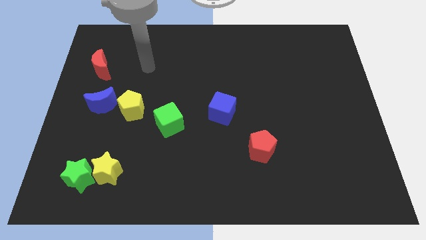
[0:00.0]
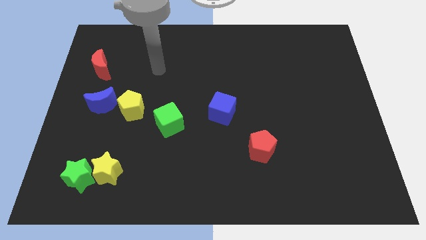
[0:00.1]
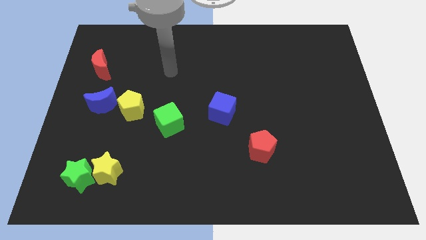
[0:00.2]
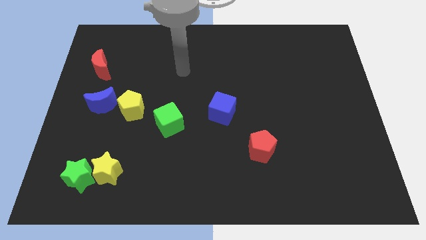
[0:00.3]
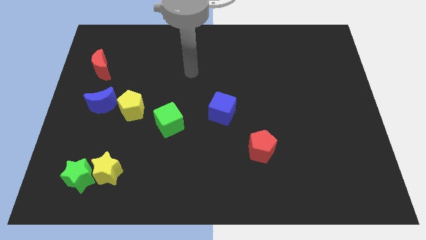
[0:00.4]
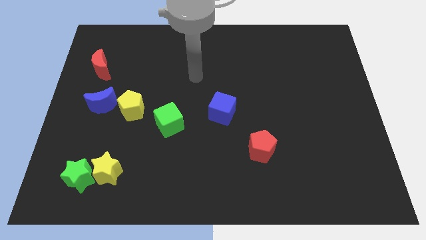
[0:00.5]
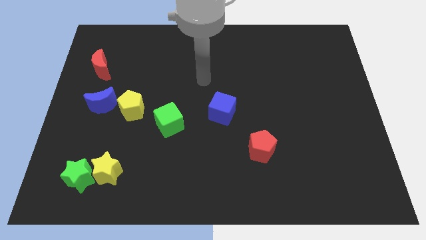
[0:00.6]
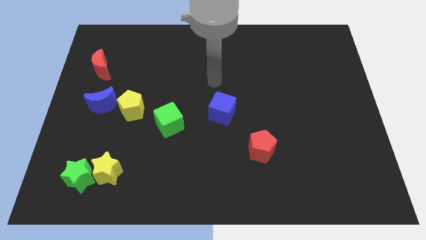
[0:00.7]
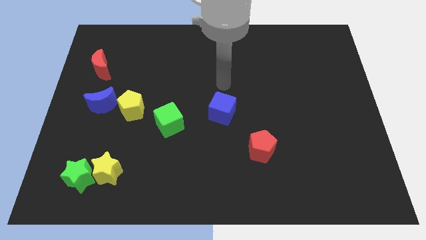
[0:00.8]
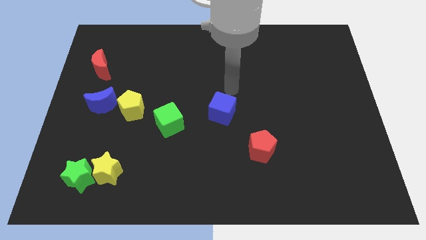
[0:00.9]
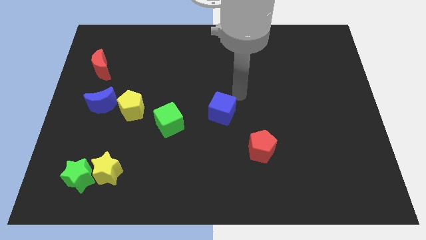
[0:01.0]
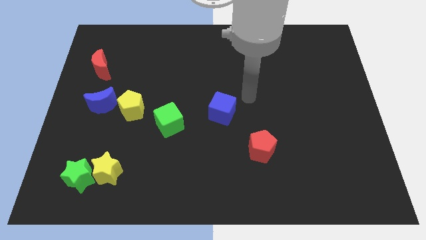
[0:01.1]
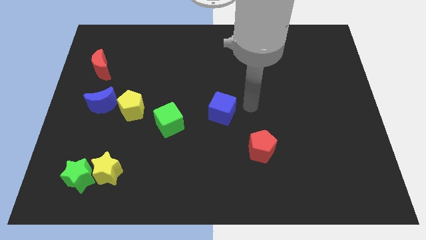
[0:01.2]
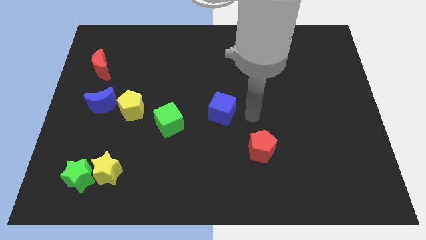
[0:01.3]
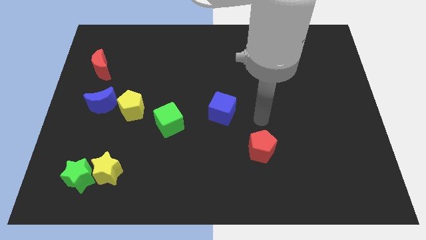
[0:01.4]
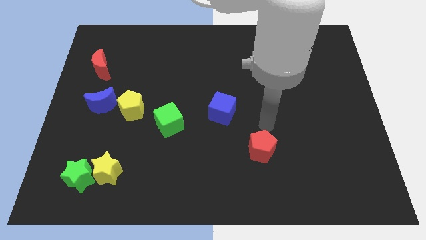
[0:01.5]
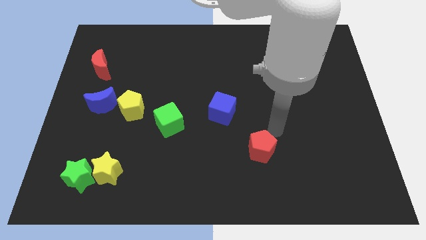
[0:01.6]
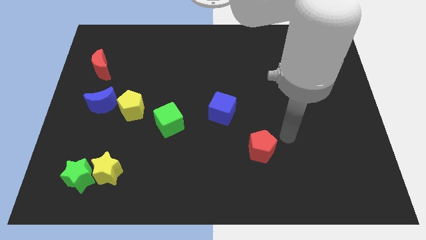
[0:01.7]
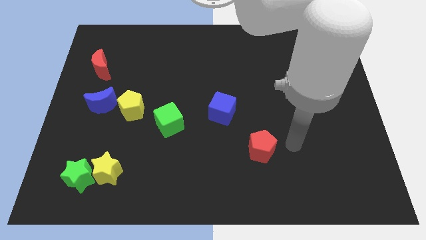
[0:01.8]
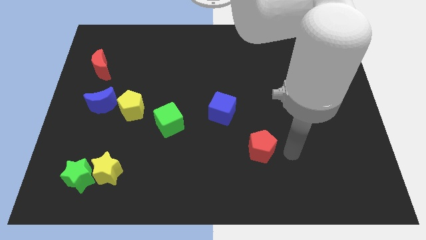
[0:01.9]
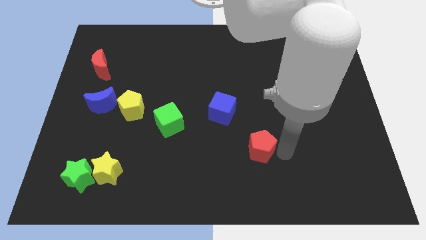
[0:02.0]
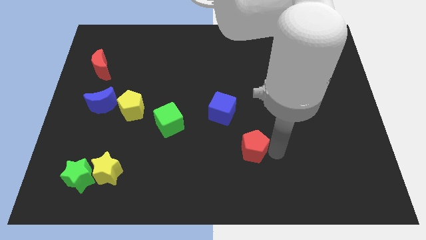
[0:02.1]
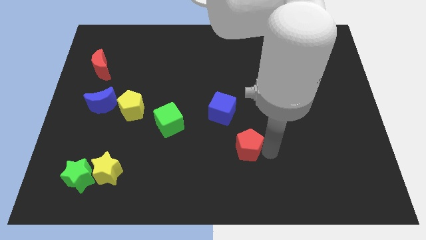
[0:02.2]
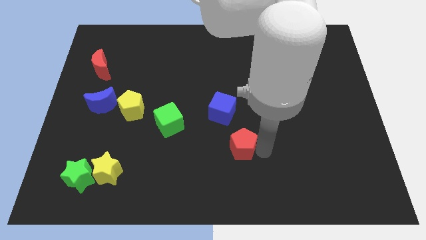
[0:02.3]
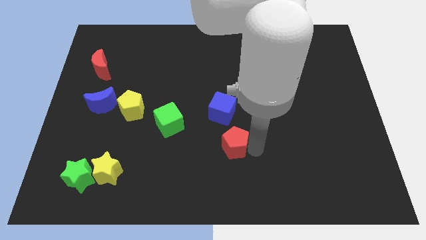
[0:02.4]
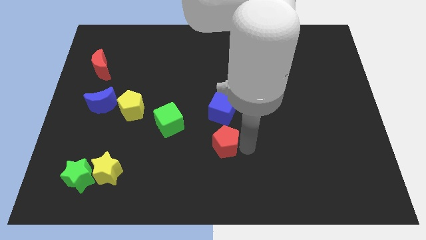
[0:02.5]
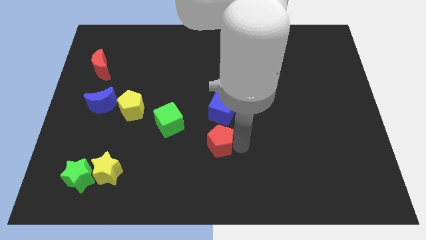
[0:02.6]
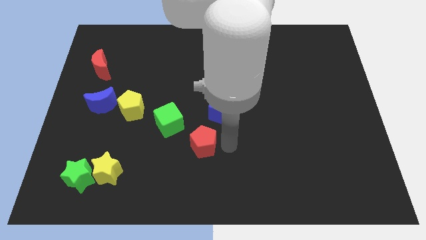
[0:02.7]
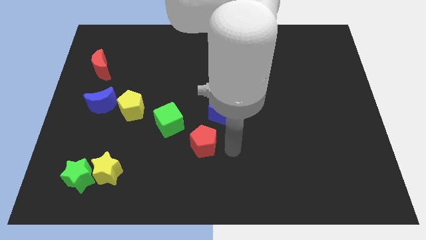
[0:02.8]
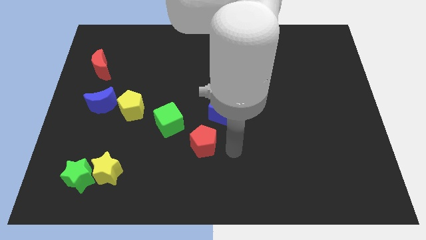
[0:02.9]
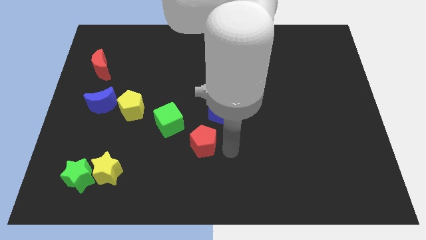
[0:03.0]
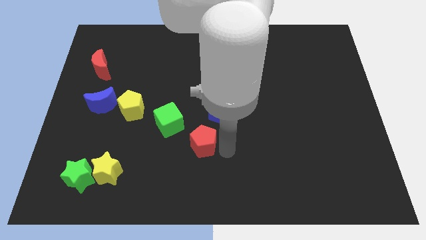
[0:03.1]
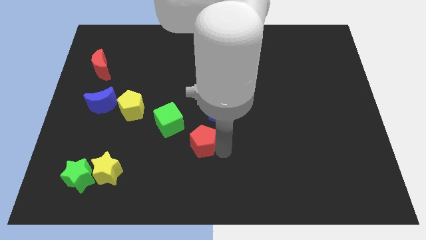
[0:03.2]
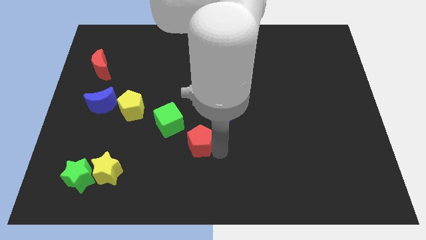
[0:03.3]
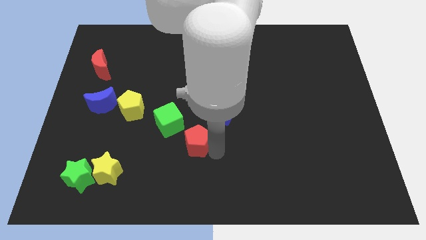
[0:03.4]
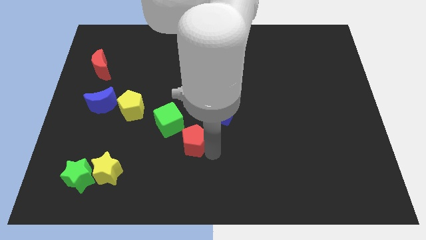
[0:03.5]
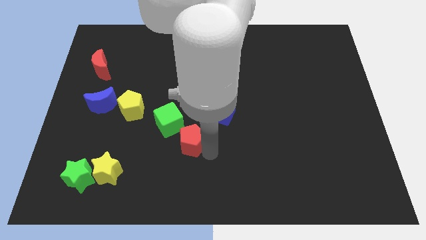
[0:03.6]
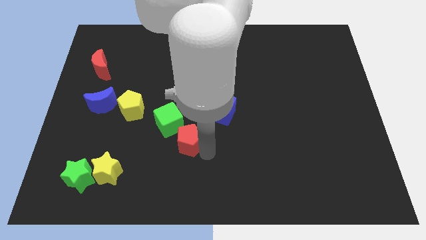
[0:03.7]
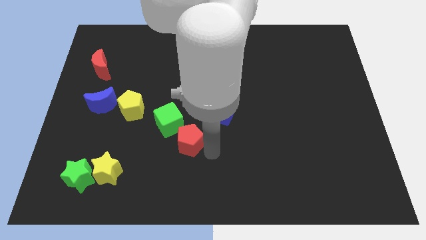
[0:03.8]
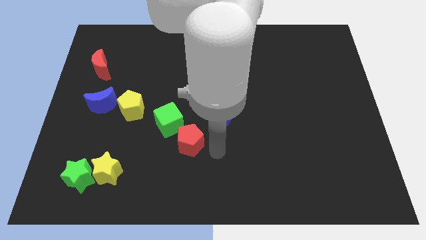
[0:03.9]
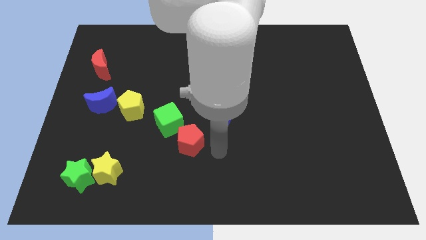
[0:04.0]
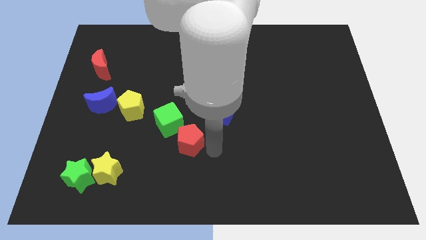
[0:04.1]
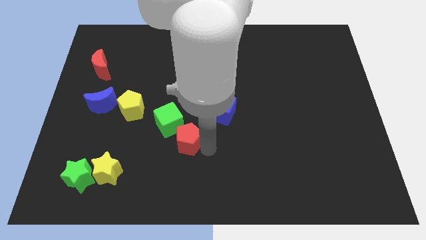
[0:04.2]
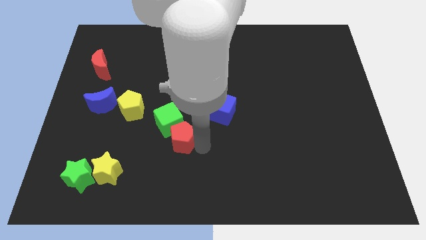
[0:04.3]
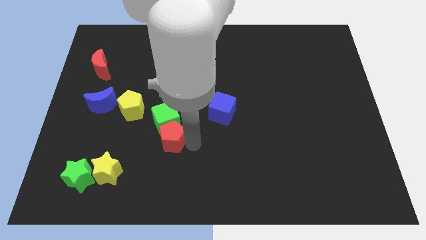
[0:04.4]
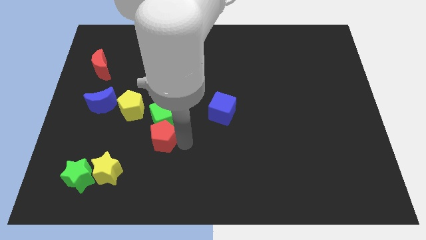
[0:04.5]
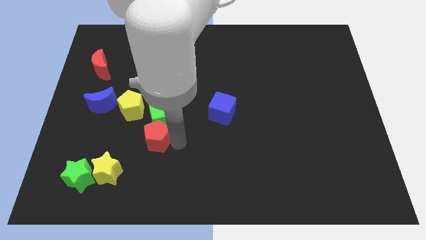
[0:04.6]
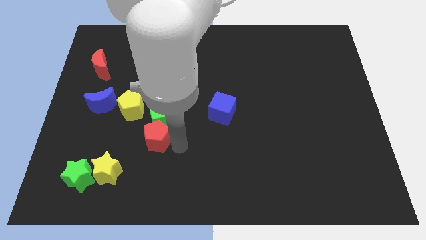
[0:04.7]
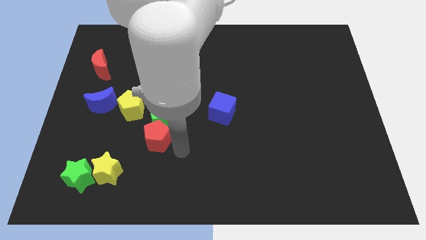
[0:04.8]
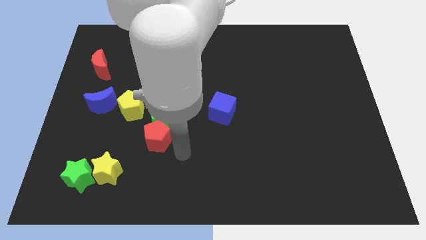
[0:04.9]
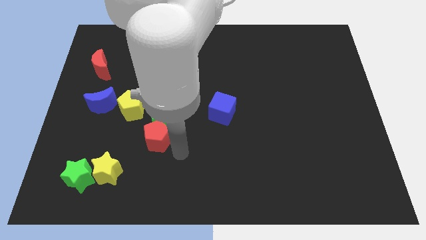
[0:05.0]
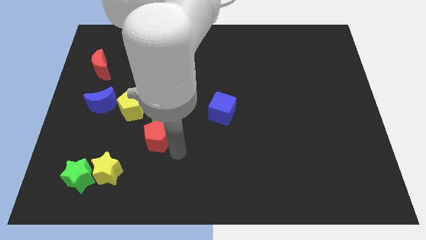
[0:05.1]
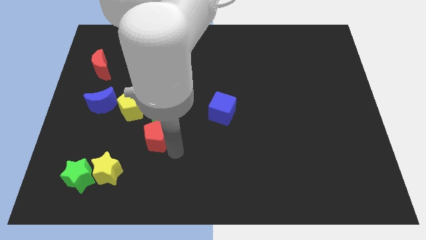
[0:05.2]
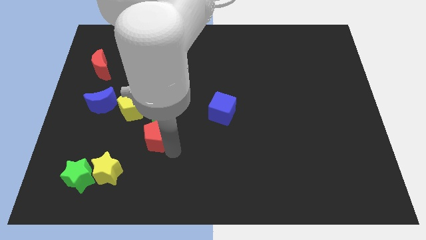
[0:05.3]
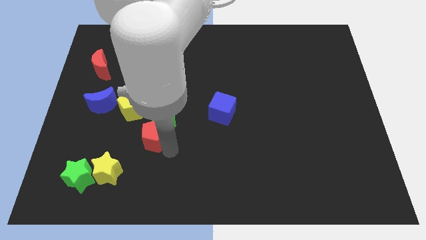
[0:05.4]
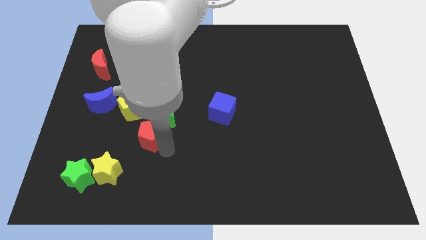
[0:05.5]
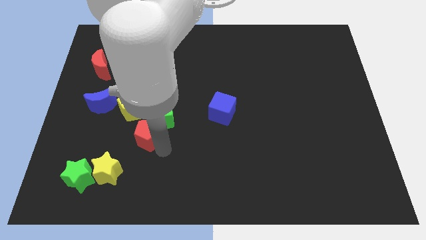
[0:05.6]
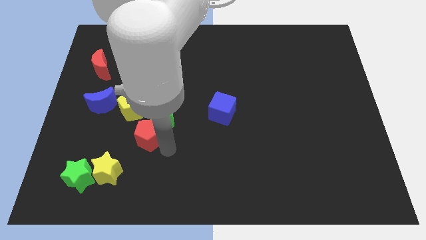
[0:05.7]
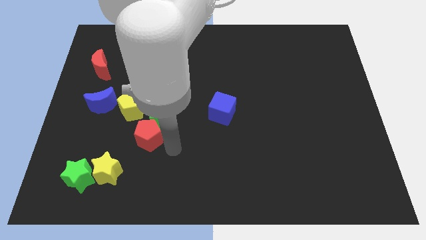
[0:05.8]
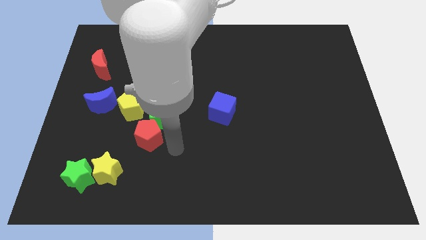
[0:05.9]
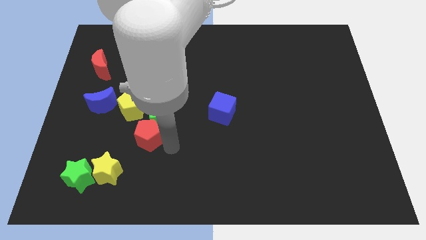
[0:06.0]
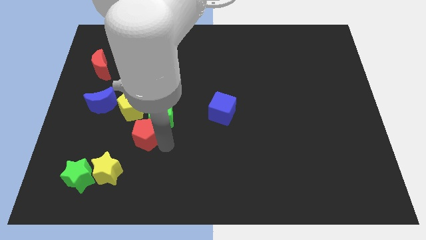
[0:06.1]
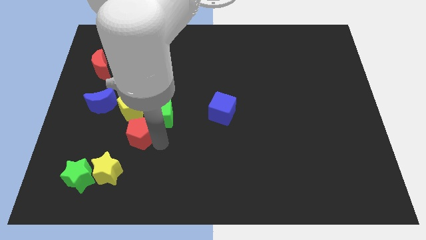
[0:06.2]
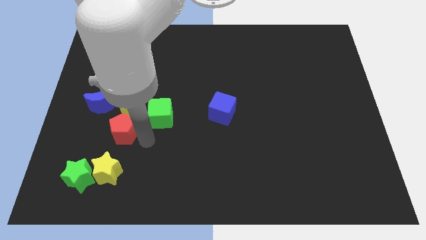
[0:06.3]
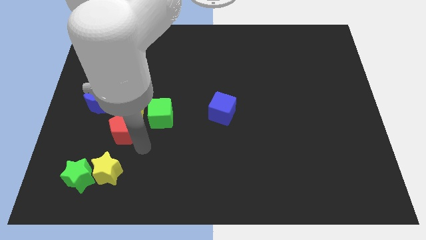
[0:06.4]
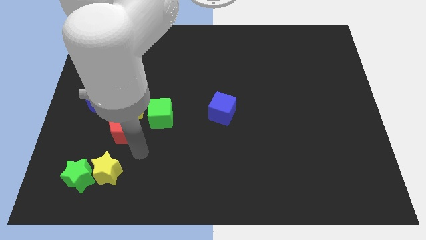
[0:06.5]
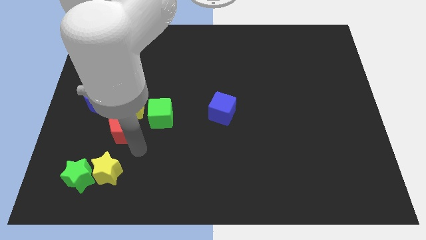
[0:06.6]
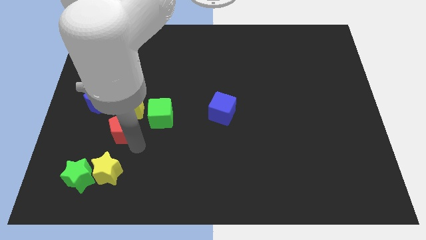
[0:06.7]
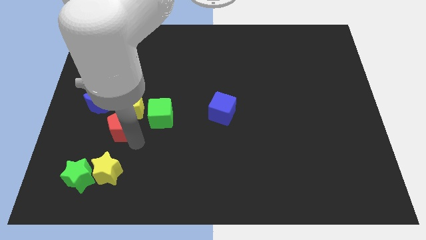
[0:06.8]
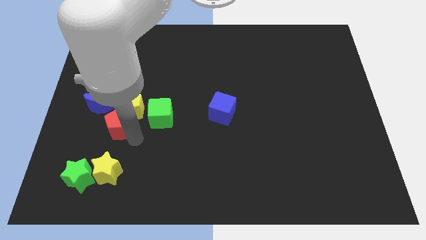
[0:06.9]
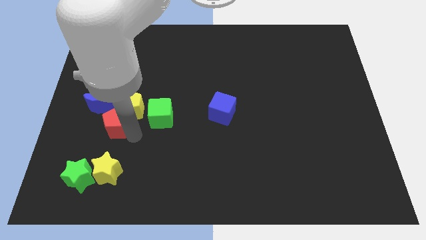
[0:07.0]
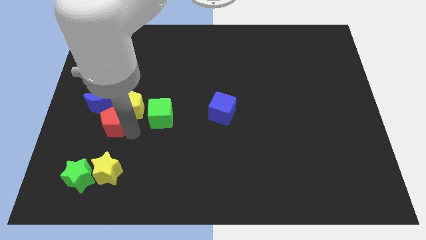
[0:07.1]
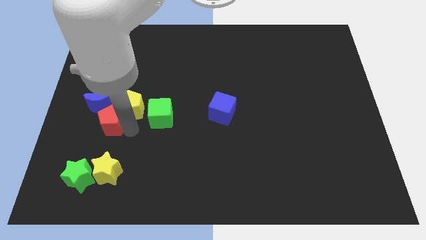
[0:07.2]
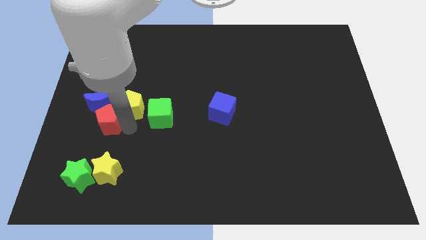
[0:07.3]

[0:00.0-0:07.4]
move the red pentagon next to the blue moon
